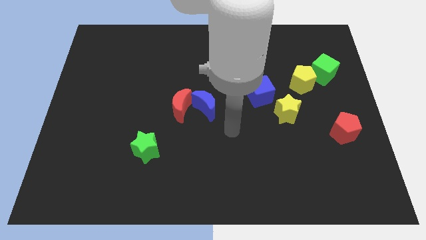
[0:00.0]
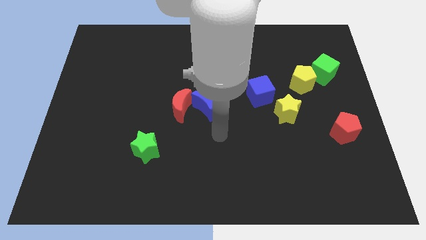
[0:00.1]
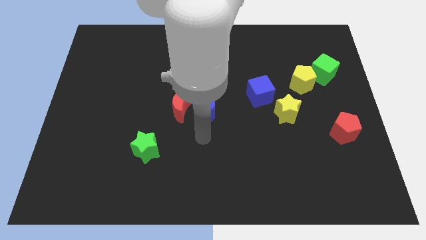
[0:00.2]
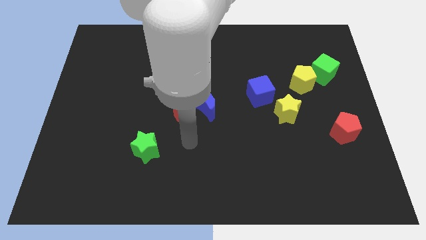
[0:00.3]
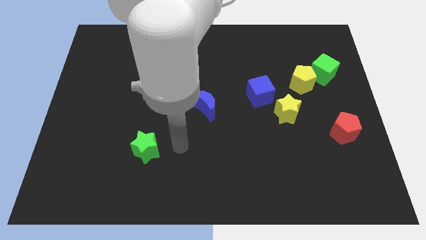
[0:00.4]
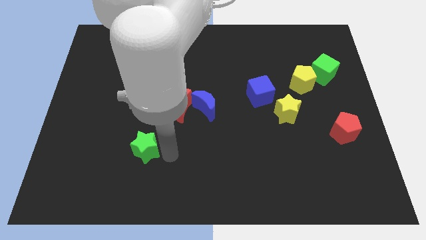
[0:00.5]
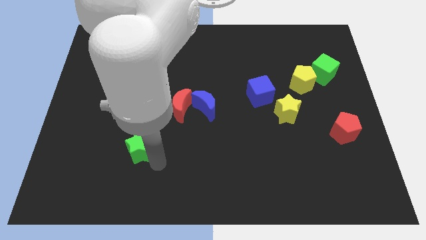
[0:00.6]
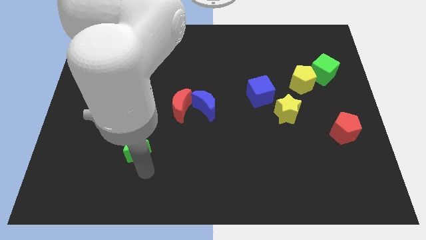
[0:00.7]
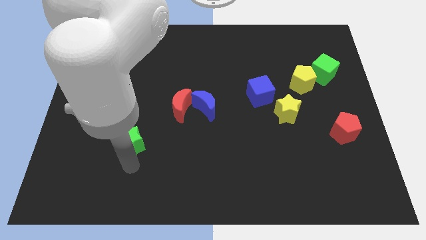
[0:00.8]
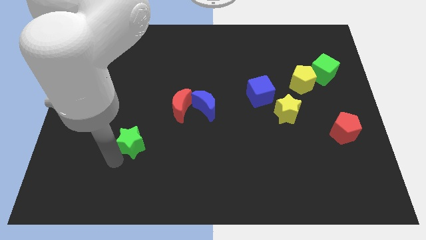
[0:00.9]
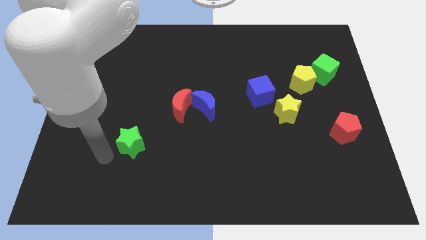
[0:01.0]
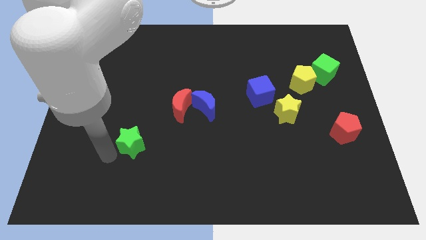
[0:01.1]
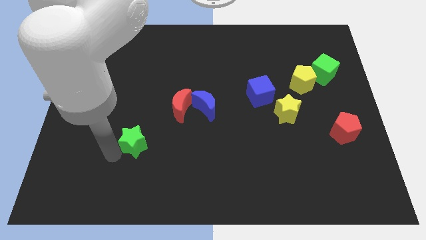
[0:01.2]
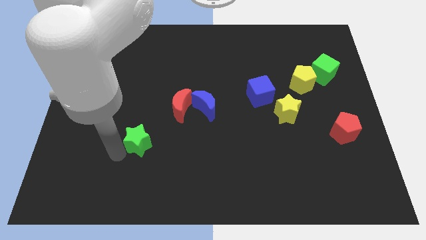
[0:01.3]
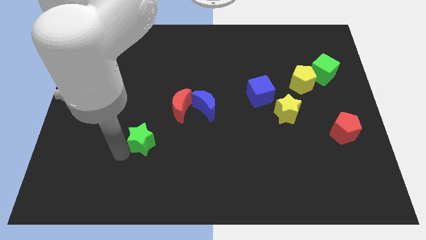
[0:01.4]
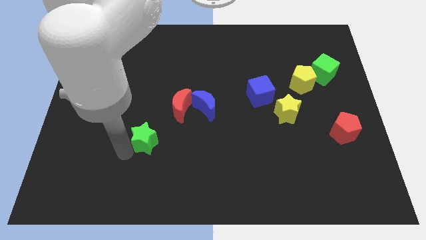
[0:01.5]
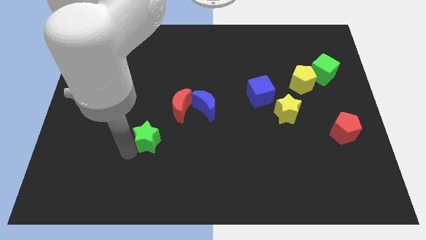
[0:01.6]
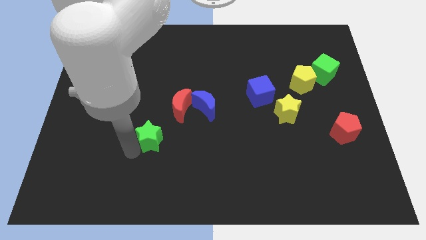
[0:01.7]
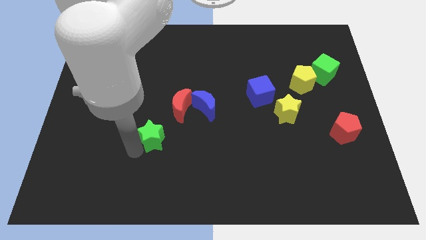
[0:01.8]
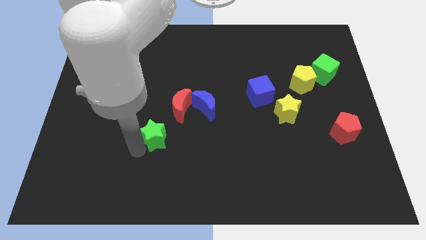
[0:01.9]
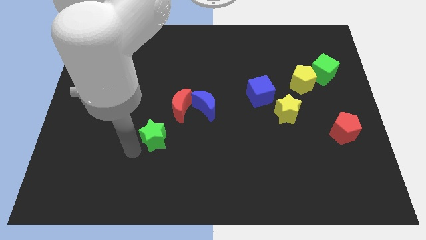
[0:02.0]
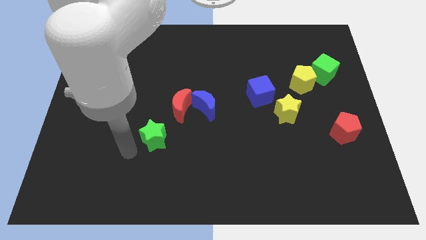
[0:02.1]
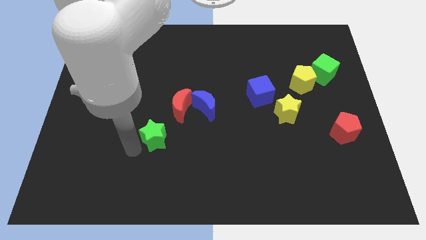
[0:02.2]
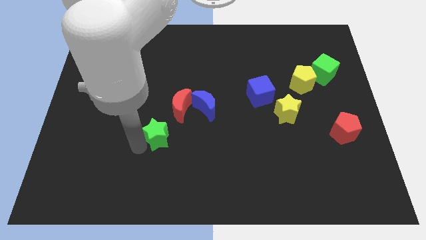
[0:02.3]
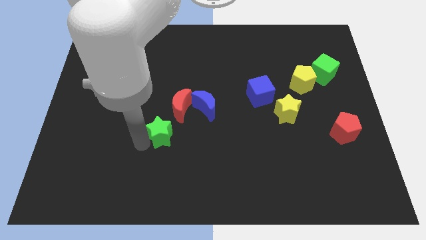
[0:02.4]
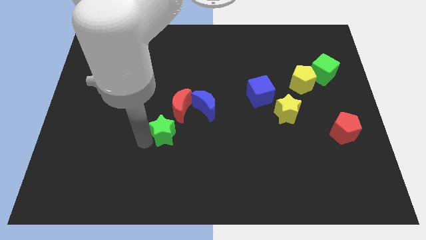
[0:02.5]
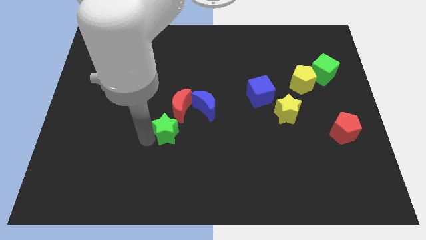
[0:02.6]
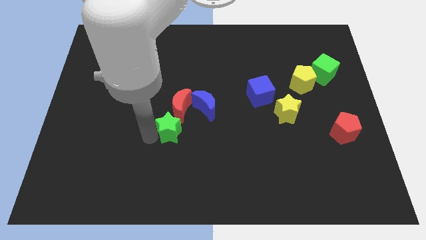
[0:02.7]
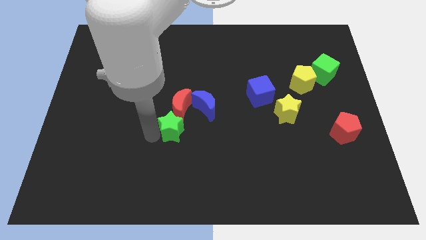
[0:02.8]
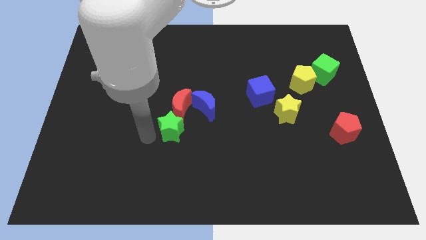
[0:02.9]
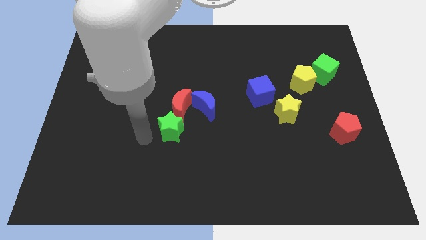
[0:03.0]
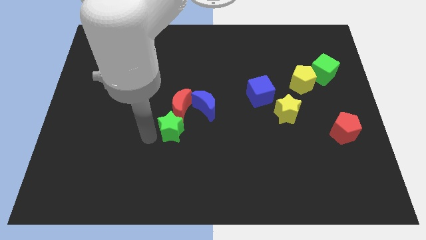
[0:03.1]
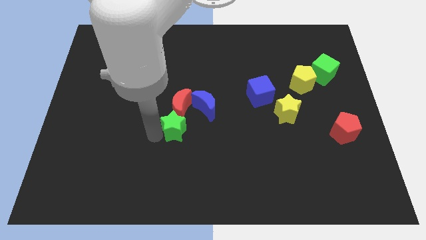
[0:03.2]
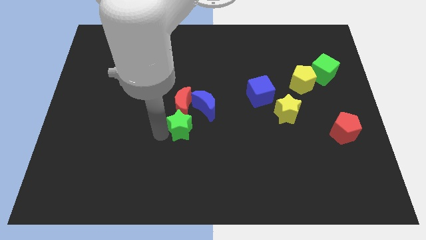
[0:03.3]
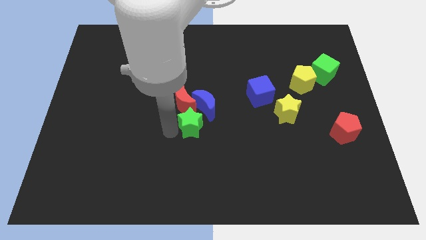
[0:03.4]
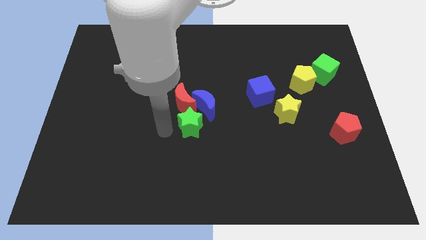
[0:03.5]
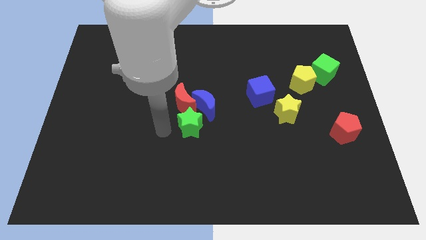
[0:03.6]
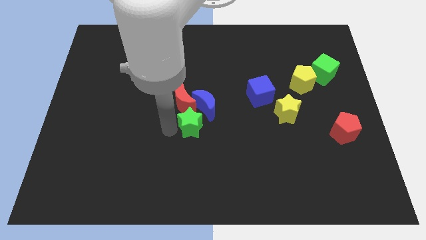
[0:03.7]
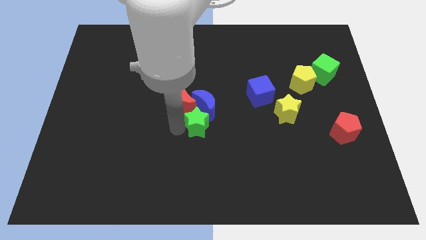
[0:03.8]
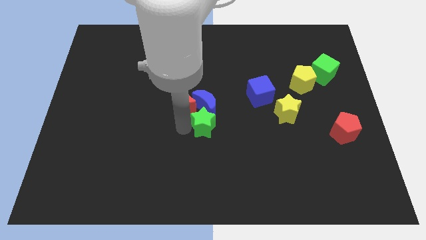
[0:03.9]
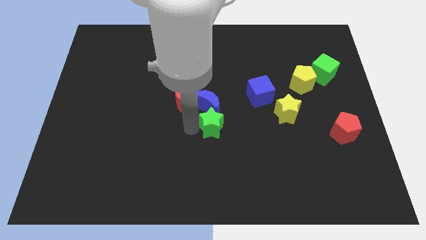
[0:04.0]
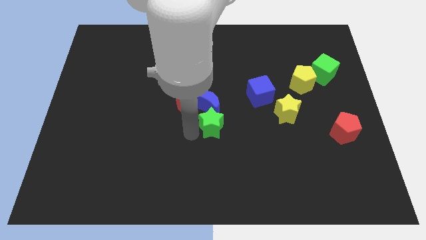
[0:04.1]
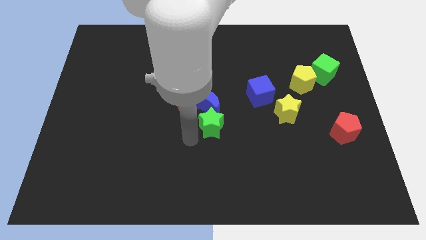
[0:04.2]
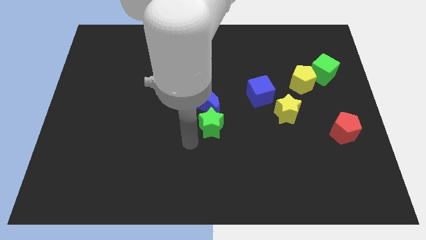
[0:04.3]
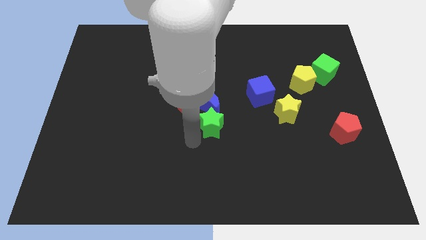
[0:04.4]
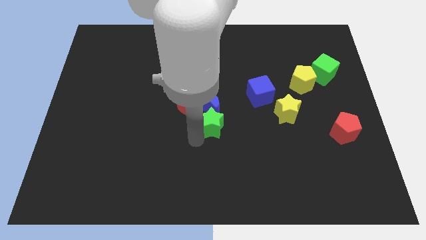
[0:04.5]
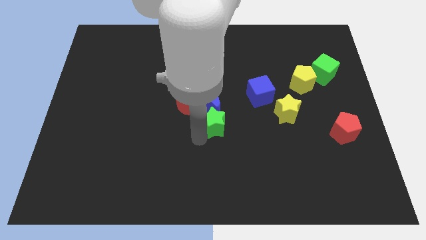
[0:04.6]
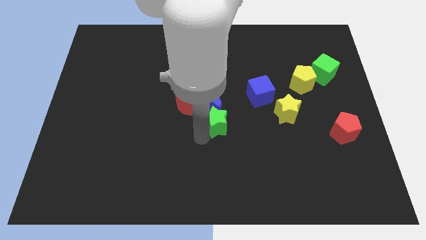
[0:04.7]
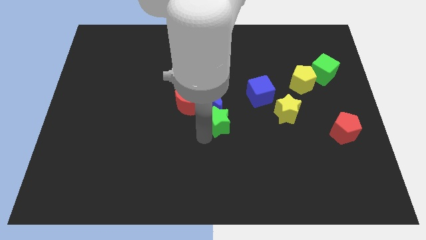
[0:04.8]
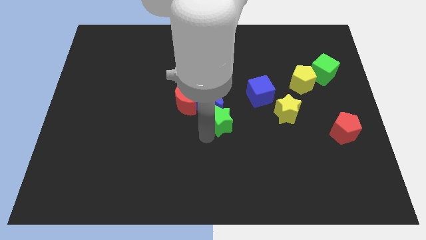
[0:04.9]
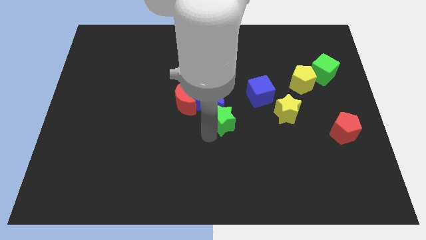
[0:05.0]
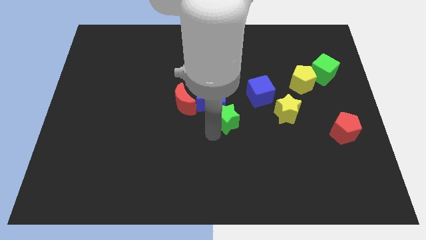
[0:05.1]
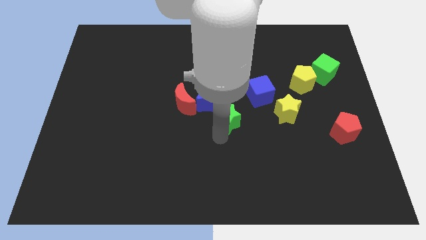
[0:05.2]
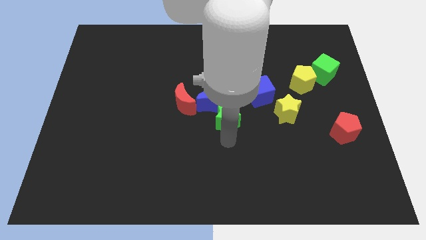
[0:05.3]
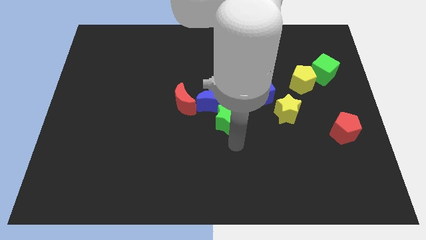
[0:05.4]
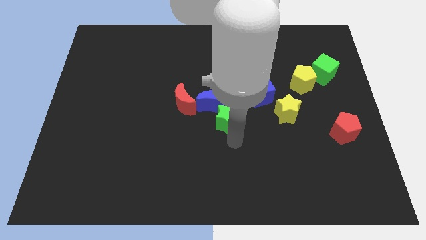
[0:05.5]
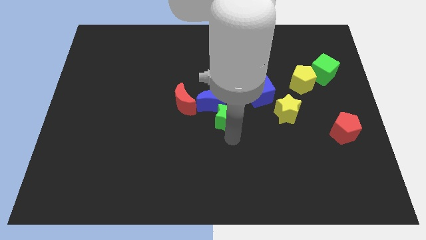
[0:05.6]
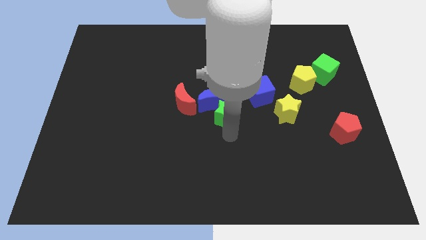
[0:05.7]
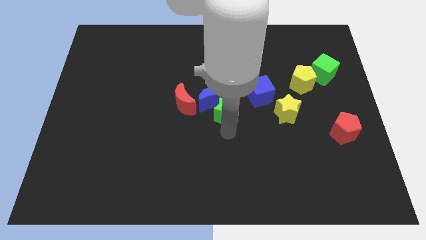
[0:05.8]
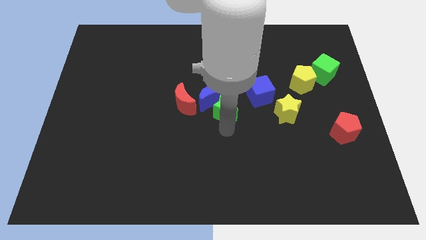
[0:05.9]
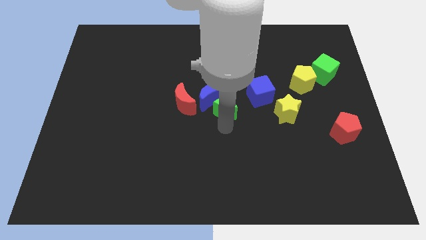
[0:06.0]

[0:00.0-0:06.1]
slide the green star to the left side of the blue cube

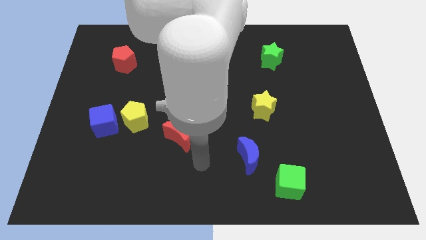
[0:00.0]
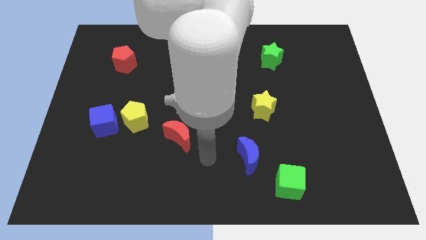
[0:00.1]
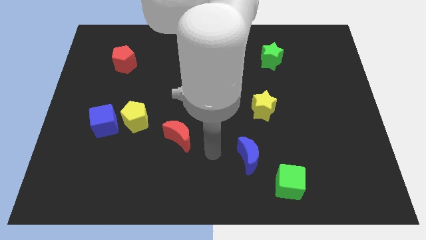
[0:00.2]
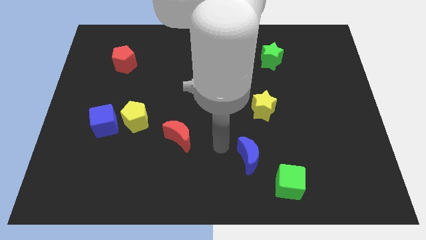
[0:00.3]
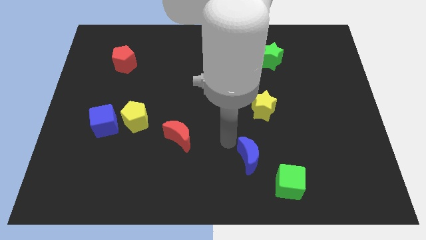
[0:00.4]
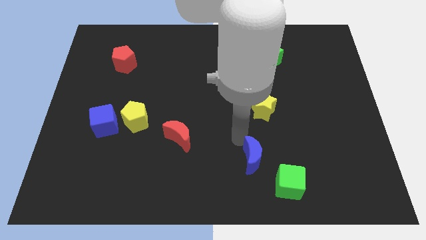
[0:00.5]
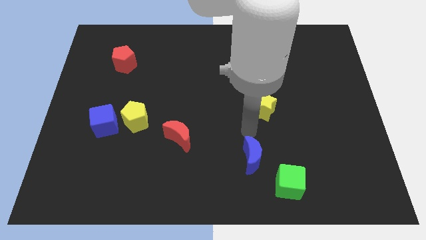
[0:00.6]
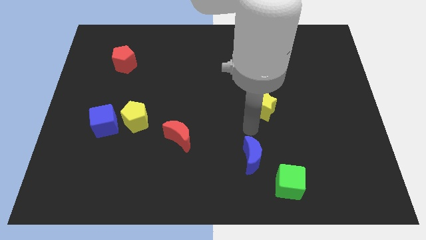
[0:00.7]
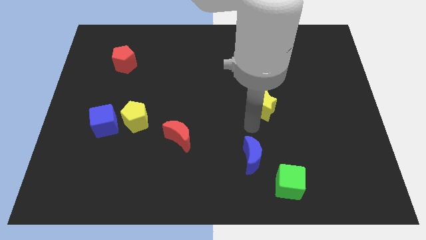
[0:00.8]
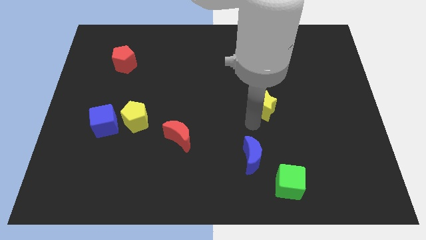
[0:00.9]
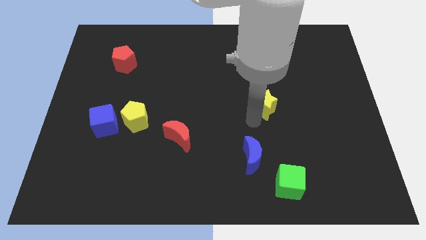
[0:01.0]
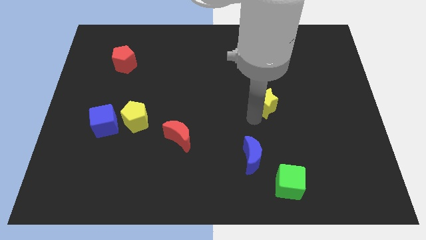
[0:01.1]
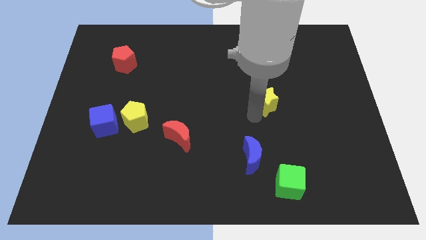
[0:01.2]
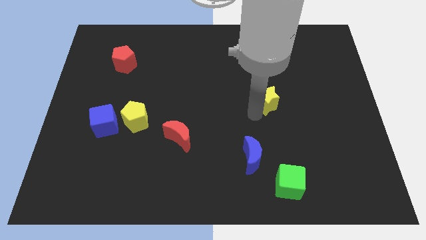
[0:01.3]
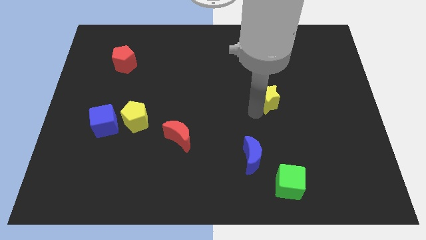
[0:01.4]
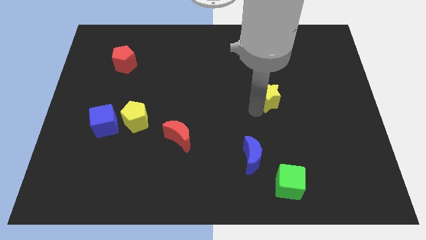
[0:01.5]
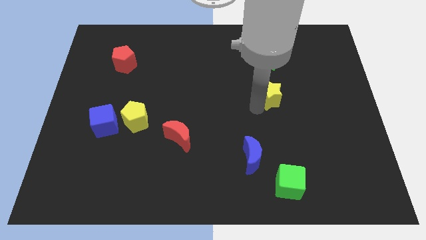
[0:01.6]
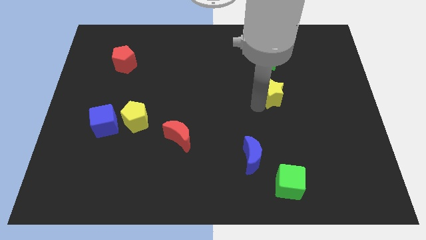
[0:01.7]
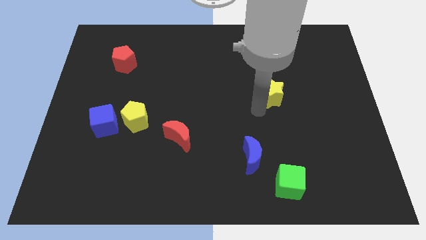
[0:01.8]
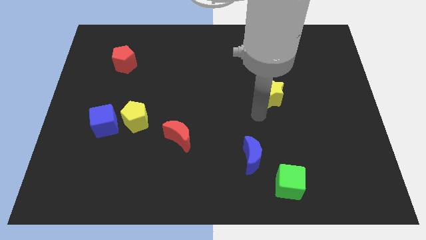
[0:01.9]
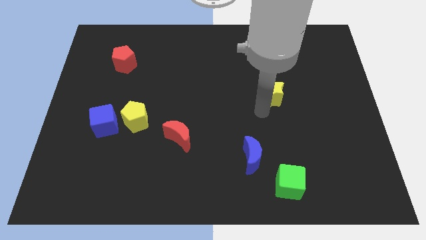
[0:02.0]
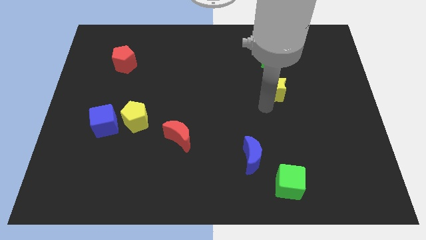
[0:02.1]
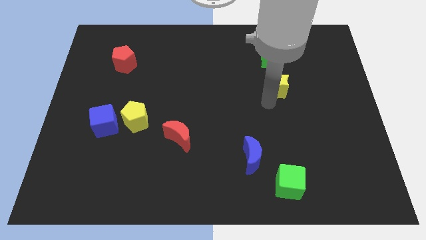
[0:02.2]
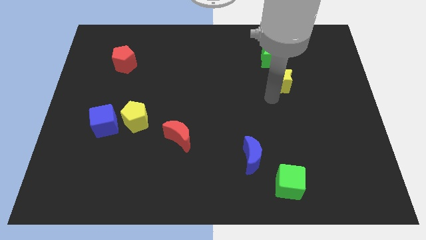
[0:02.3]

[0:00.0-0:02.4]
move the yellow star to the bottom right of the green star
